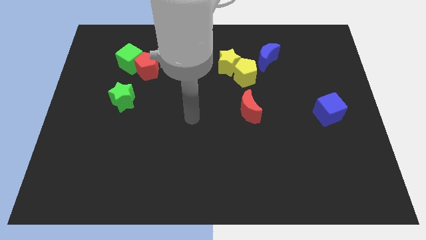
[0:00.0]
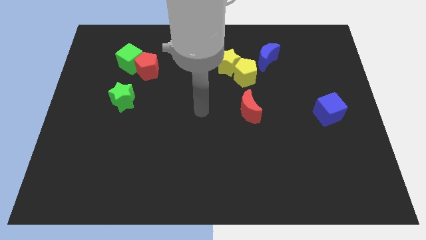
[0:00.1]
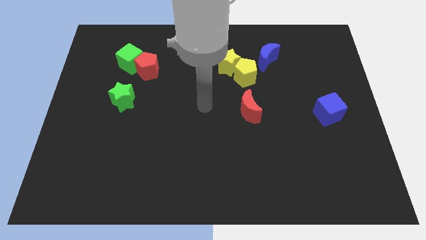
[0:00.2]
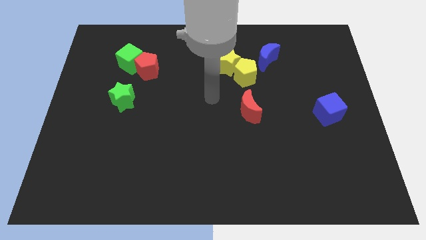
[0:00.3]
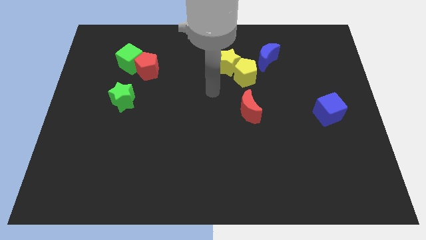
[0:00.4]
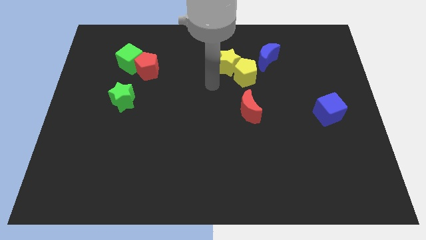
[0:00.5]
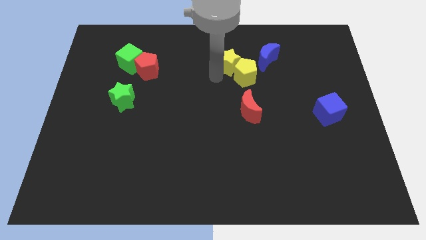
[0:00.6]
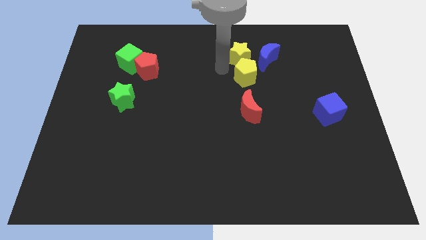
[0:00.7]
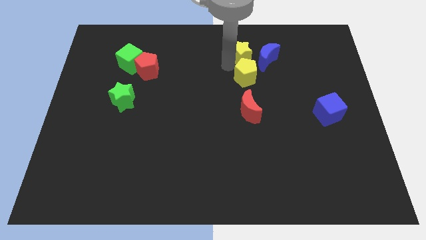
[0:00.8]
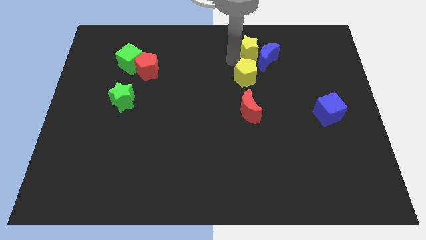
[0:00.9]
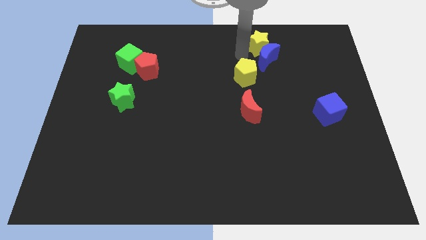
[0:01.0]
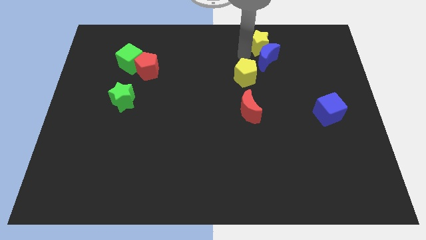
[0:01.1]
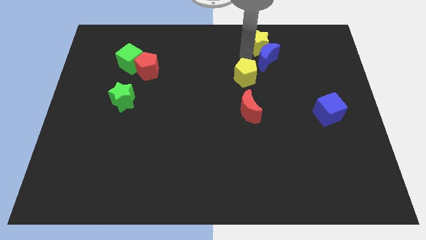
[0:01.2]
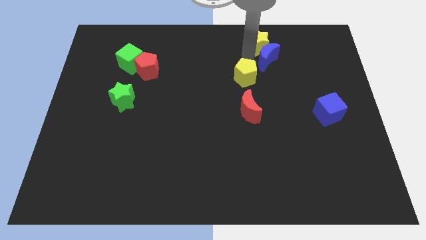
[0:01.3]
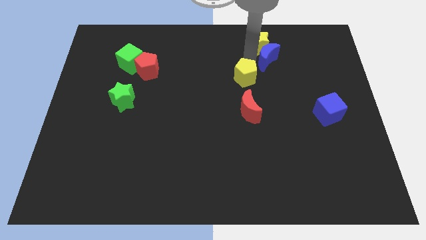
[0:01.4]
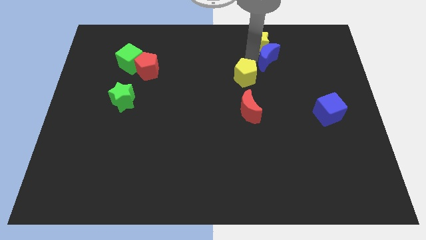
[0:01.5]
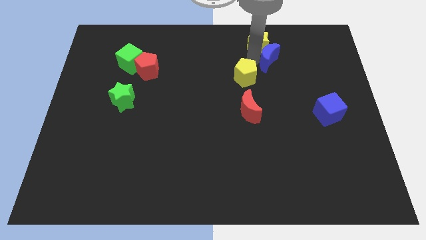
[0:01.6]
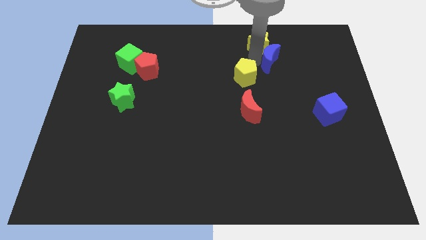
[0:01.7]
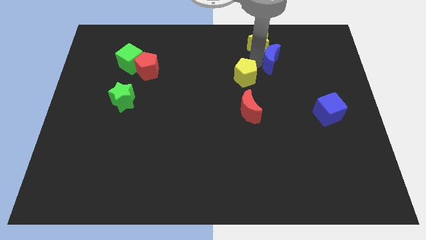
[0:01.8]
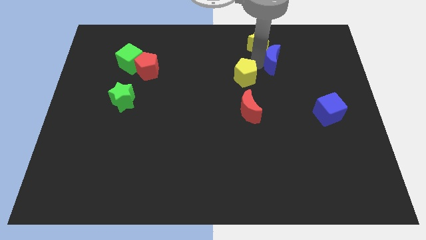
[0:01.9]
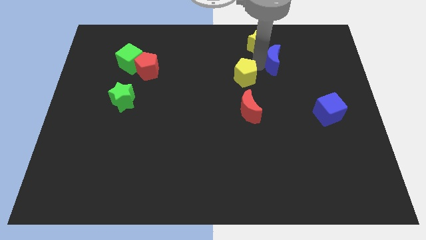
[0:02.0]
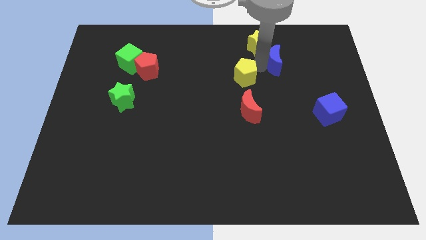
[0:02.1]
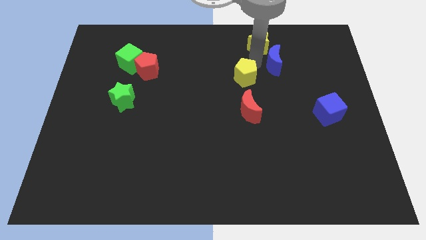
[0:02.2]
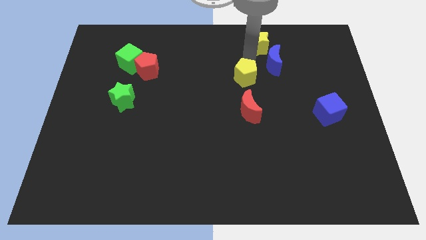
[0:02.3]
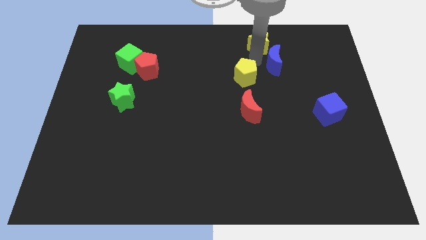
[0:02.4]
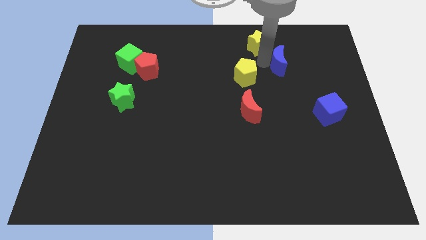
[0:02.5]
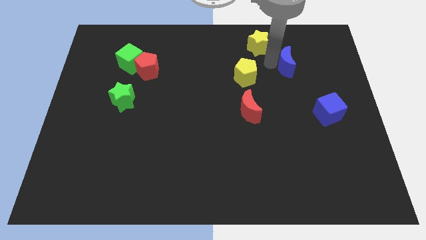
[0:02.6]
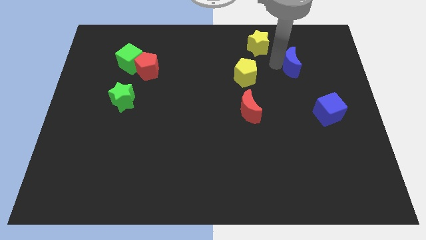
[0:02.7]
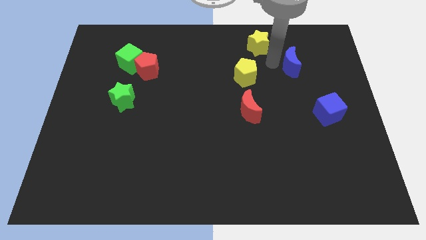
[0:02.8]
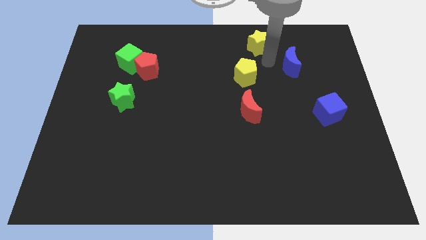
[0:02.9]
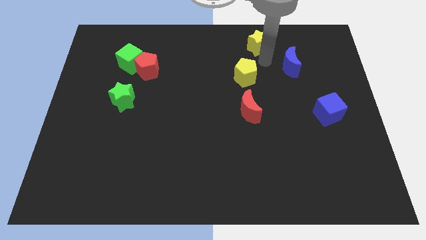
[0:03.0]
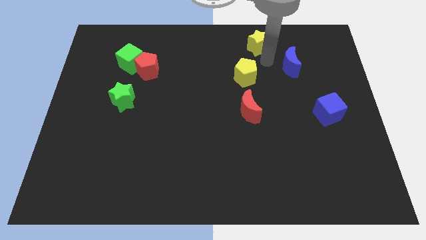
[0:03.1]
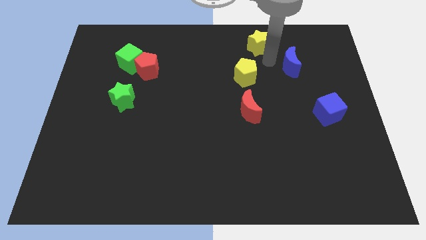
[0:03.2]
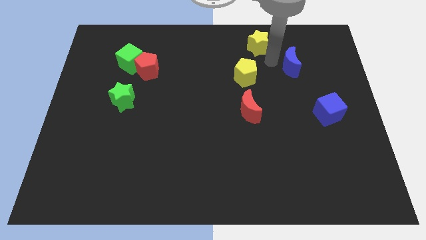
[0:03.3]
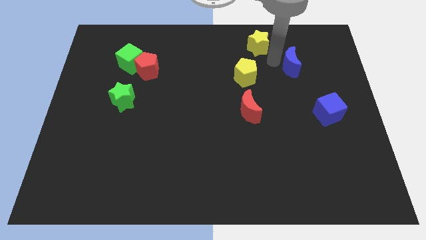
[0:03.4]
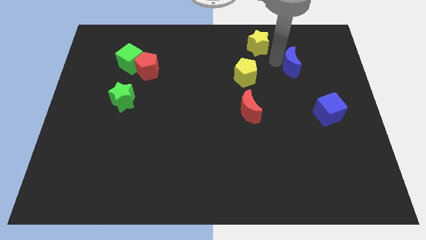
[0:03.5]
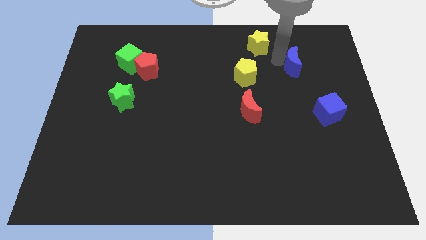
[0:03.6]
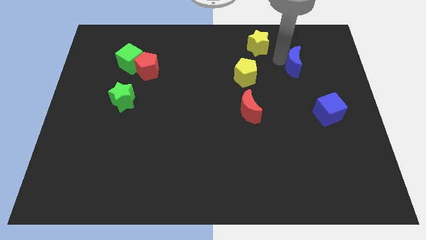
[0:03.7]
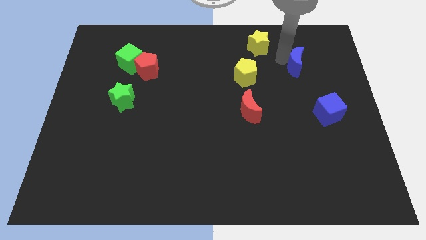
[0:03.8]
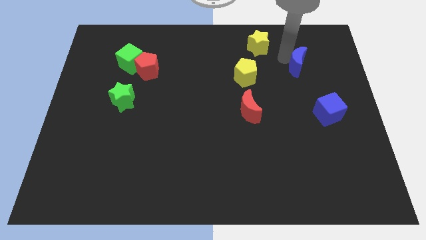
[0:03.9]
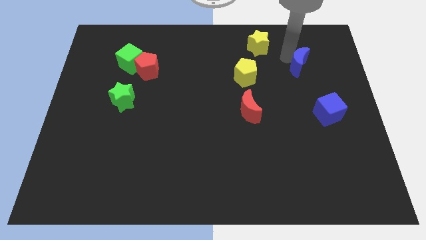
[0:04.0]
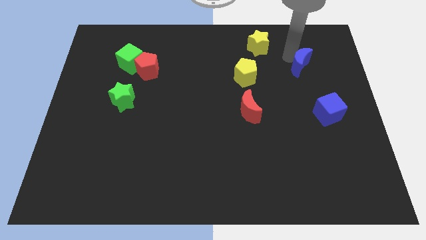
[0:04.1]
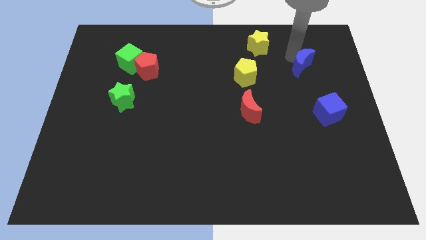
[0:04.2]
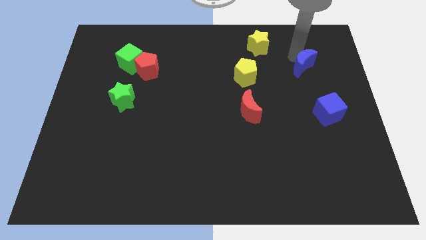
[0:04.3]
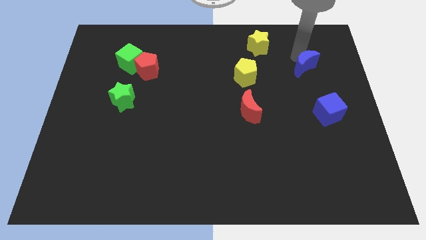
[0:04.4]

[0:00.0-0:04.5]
slide the blue moon to the top of the blue cube

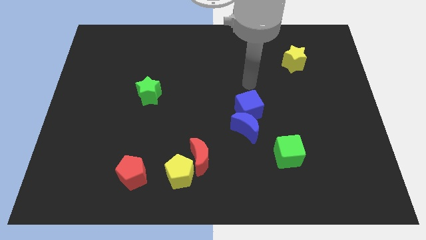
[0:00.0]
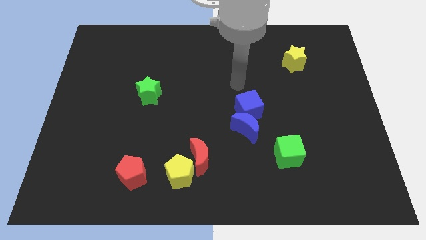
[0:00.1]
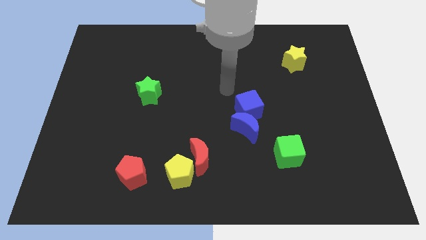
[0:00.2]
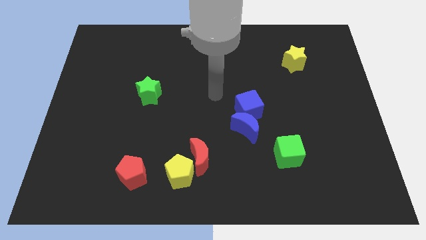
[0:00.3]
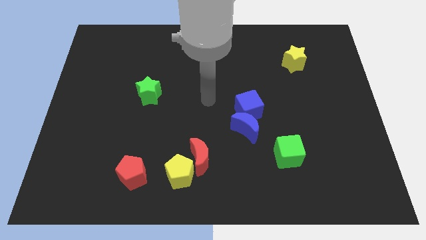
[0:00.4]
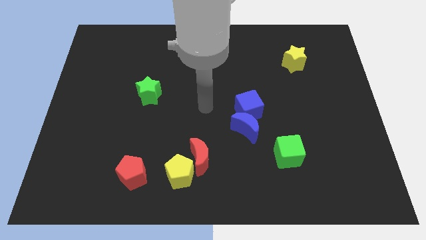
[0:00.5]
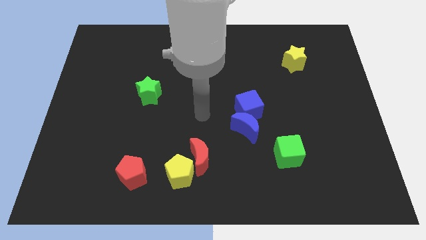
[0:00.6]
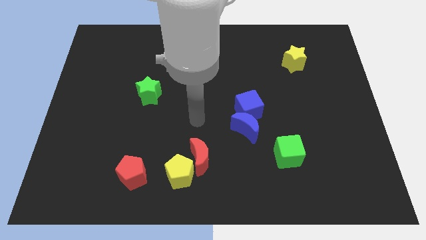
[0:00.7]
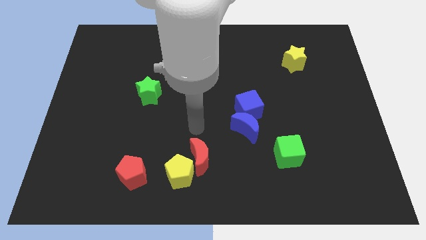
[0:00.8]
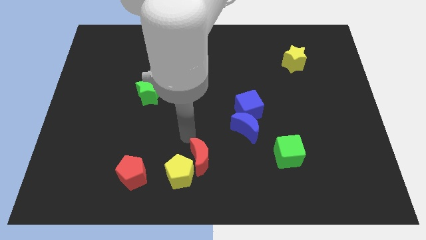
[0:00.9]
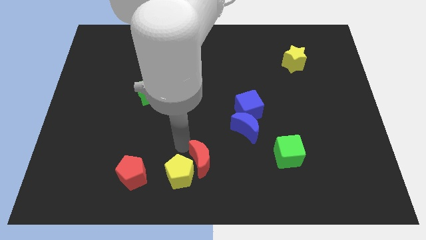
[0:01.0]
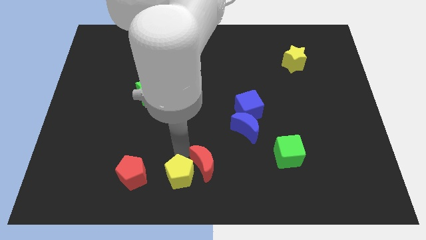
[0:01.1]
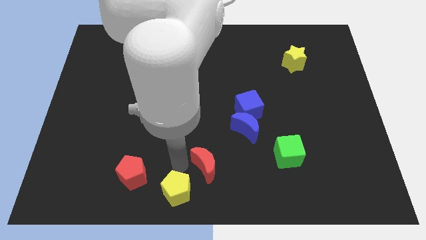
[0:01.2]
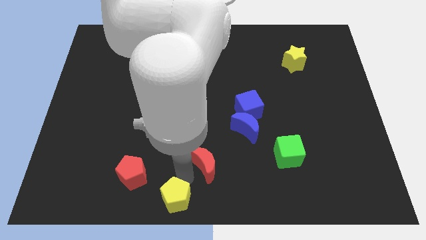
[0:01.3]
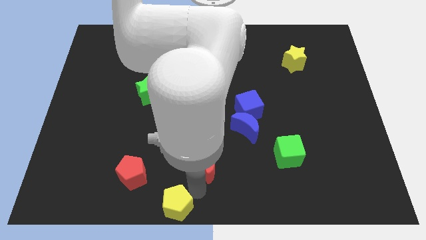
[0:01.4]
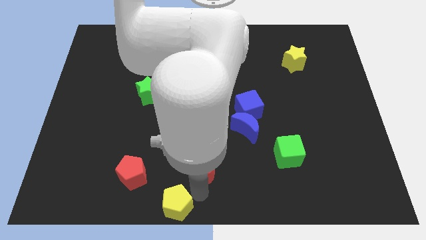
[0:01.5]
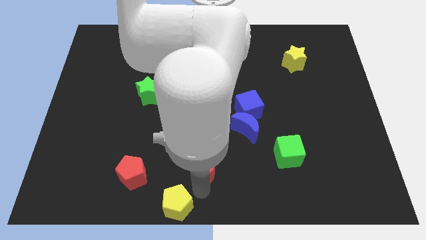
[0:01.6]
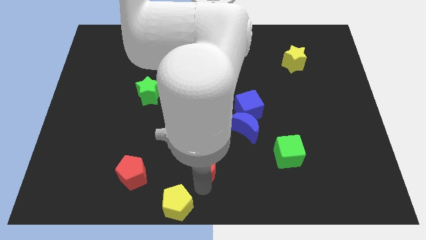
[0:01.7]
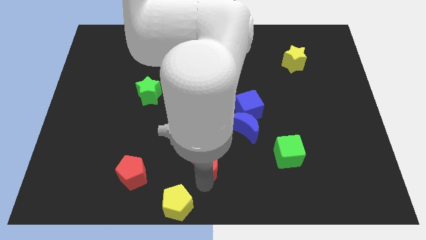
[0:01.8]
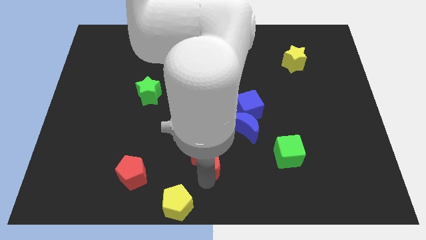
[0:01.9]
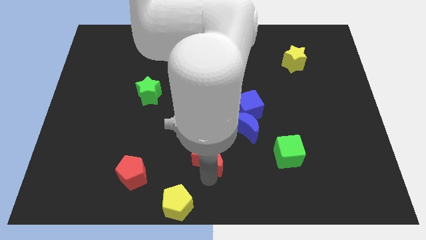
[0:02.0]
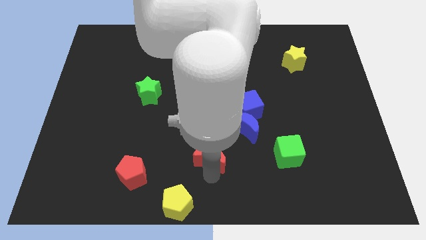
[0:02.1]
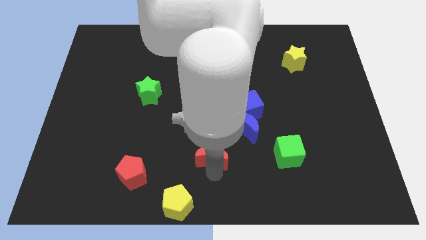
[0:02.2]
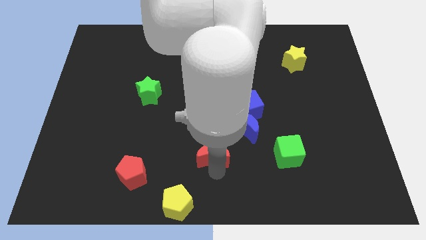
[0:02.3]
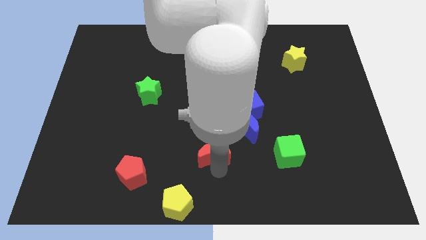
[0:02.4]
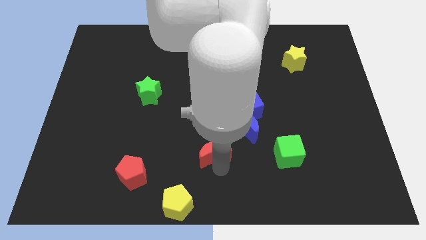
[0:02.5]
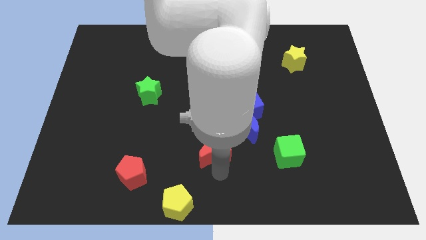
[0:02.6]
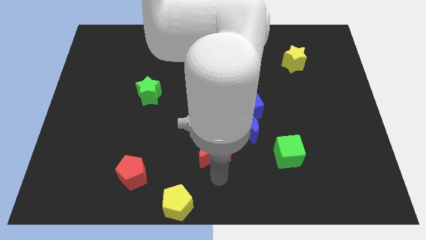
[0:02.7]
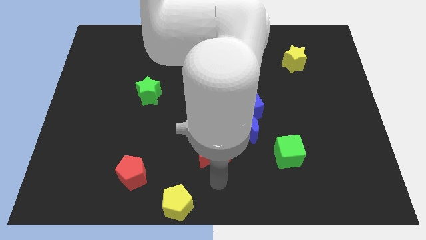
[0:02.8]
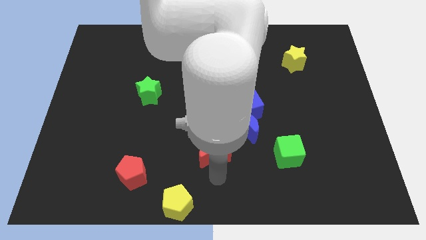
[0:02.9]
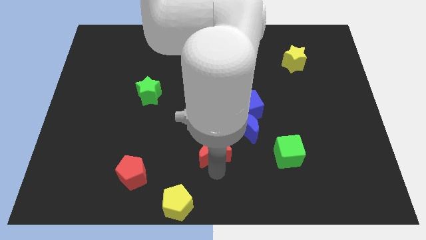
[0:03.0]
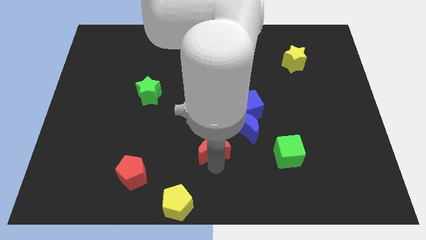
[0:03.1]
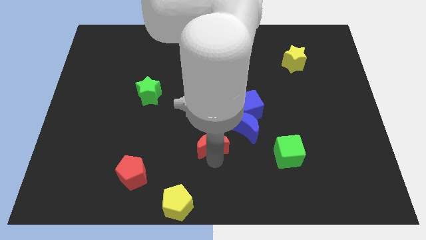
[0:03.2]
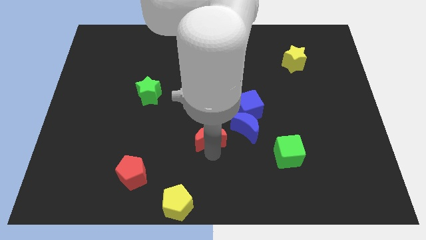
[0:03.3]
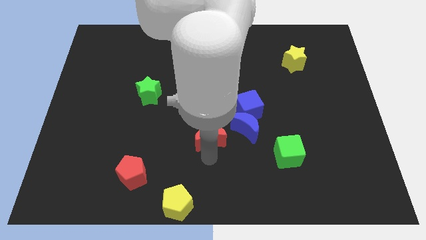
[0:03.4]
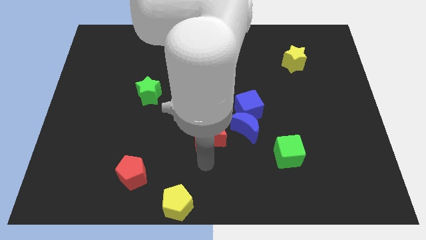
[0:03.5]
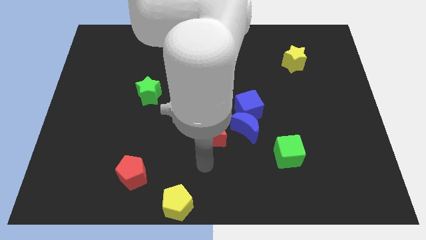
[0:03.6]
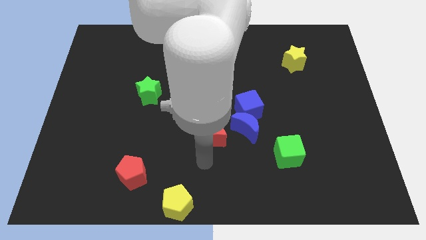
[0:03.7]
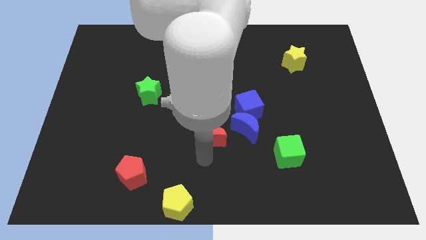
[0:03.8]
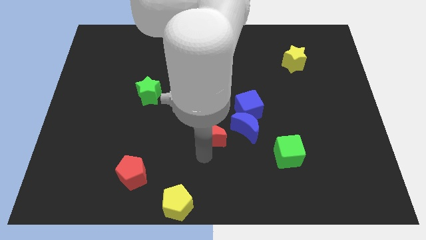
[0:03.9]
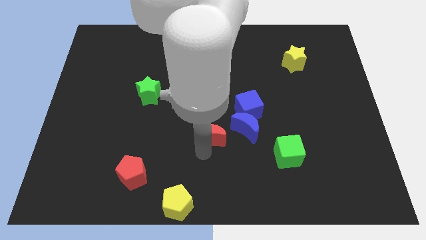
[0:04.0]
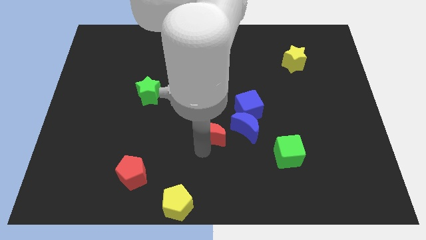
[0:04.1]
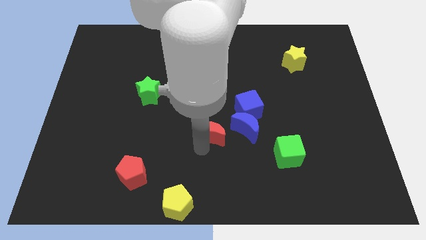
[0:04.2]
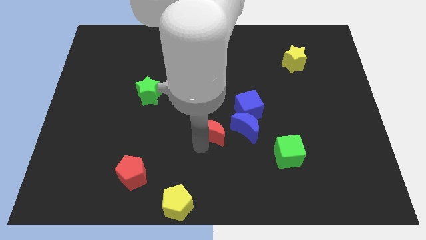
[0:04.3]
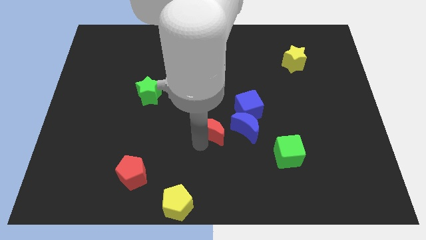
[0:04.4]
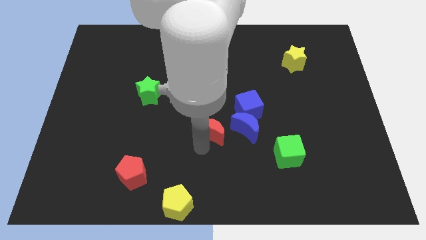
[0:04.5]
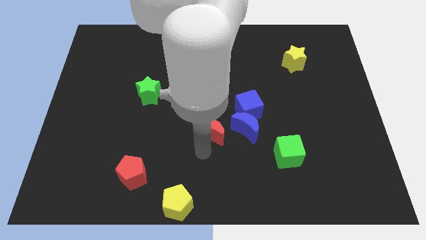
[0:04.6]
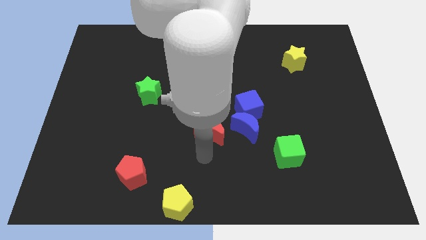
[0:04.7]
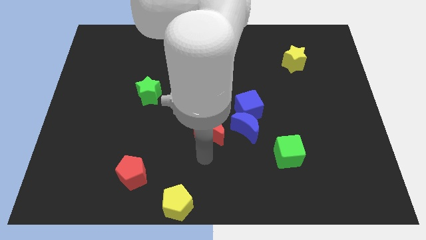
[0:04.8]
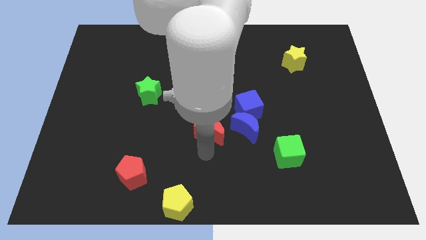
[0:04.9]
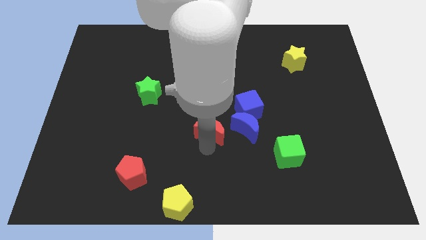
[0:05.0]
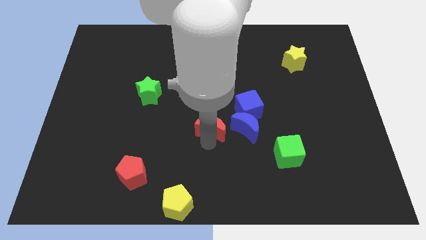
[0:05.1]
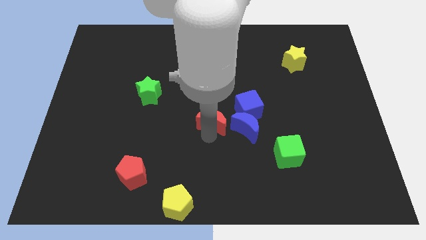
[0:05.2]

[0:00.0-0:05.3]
push the red moon to the top left side of the blue moon
